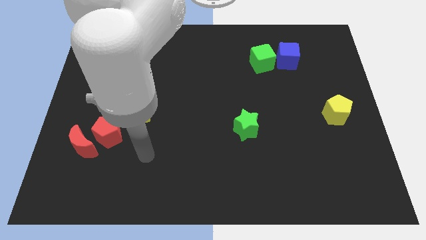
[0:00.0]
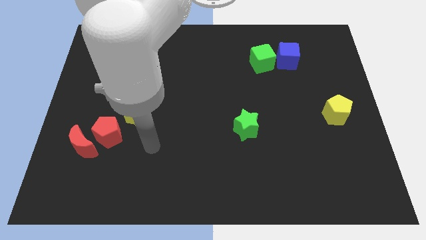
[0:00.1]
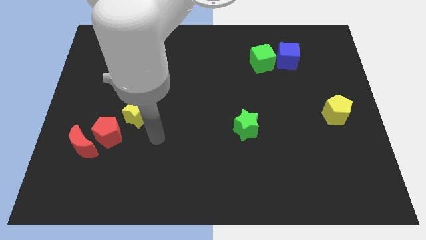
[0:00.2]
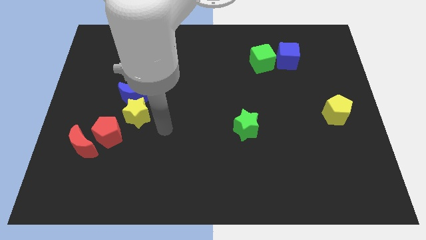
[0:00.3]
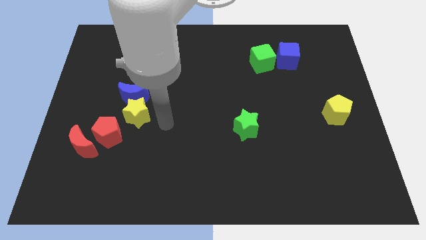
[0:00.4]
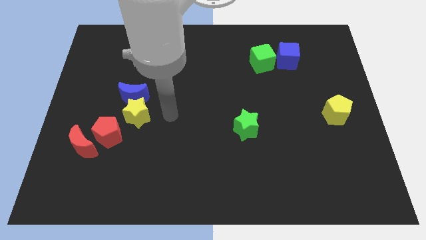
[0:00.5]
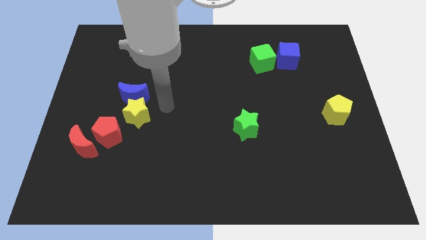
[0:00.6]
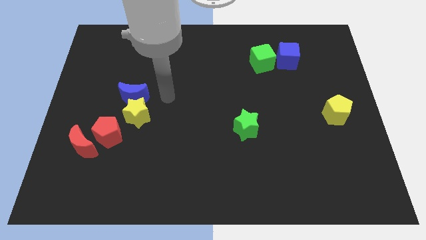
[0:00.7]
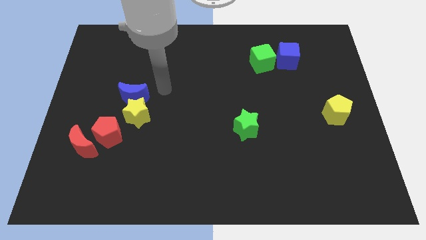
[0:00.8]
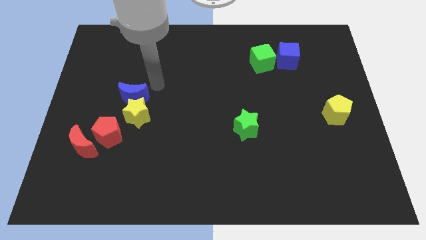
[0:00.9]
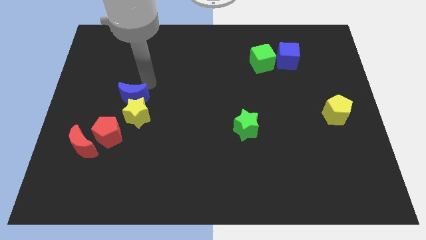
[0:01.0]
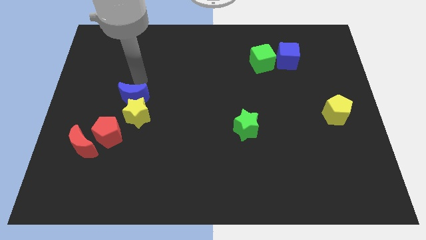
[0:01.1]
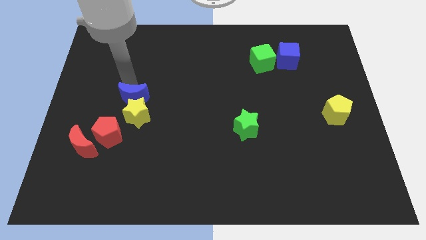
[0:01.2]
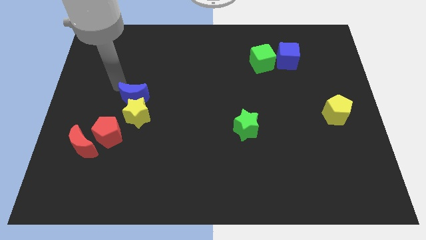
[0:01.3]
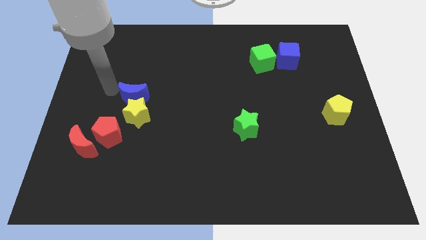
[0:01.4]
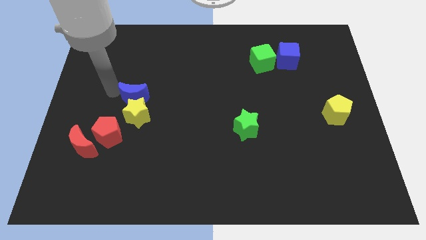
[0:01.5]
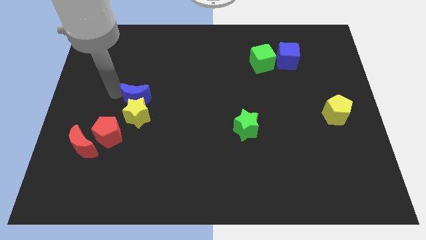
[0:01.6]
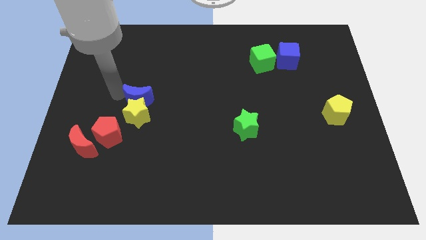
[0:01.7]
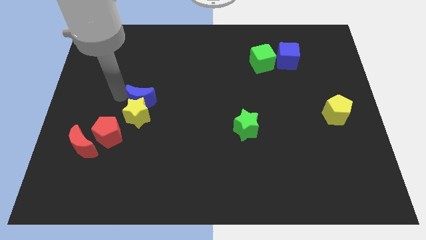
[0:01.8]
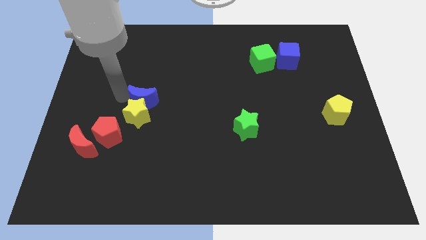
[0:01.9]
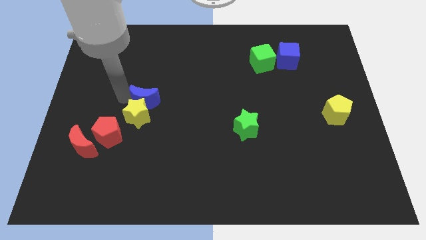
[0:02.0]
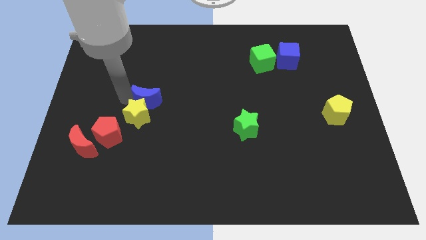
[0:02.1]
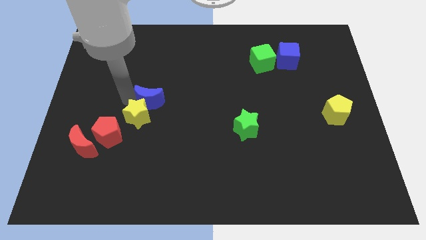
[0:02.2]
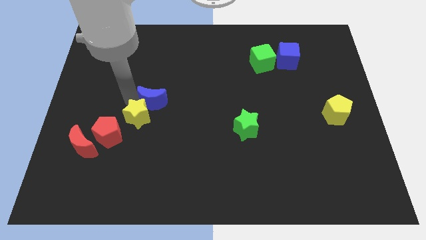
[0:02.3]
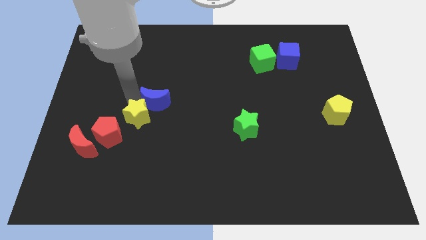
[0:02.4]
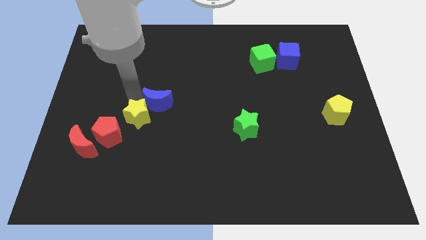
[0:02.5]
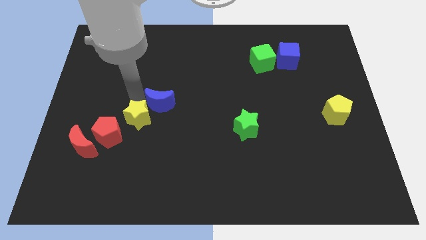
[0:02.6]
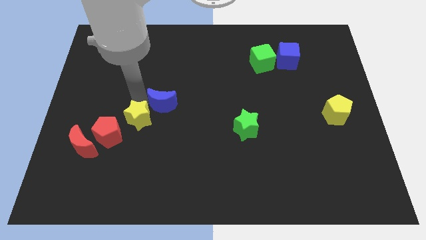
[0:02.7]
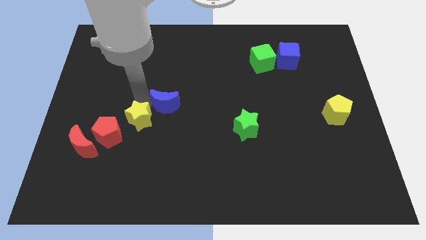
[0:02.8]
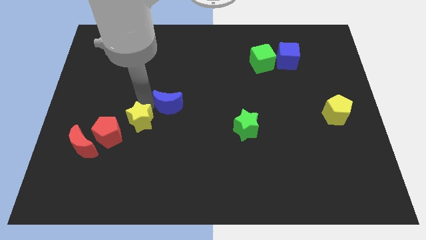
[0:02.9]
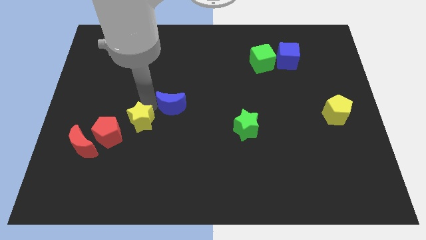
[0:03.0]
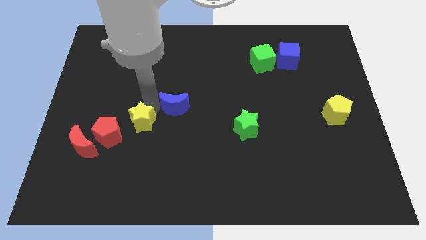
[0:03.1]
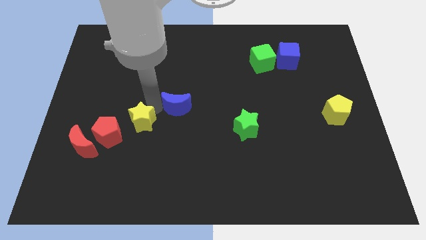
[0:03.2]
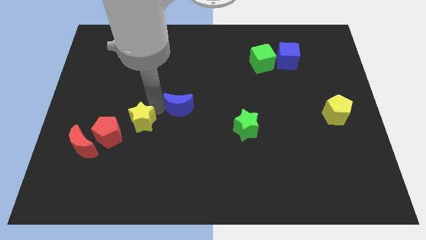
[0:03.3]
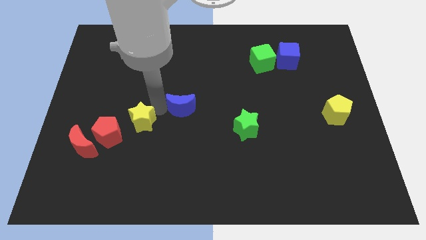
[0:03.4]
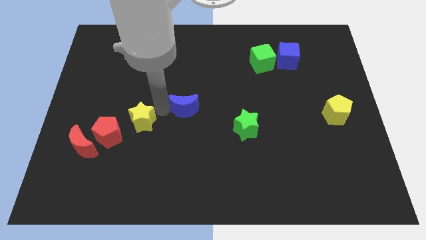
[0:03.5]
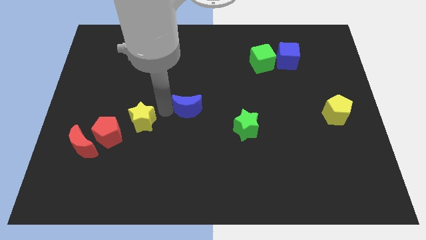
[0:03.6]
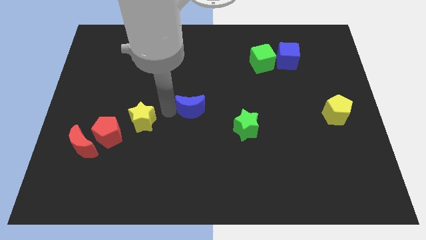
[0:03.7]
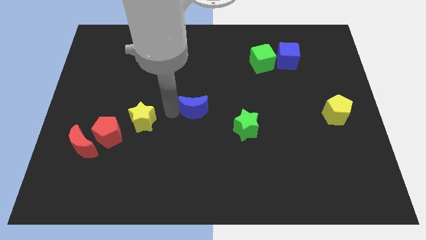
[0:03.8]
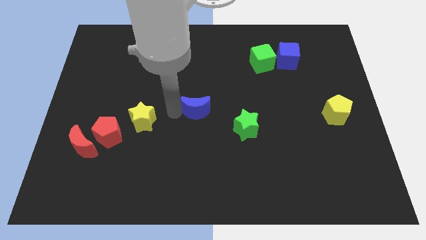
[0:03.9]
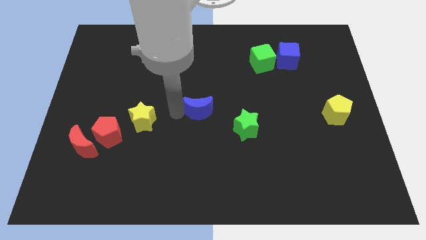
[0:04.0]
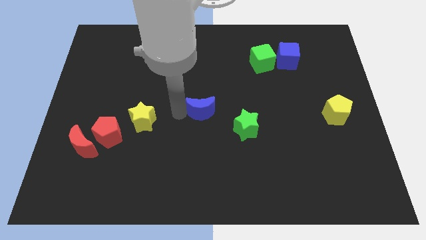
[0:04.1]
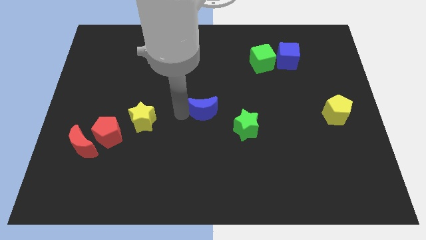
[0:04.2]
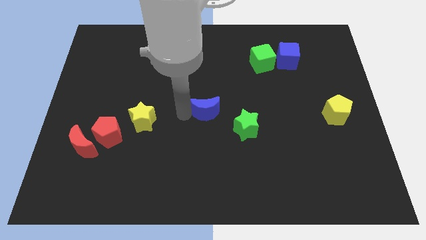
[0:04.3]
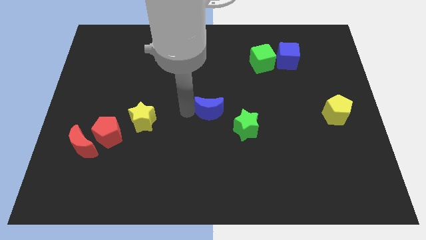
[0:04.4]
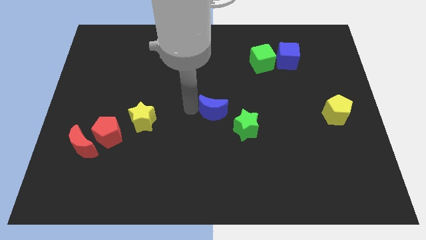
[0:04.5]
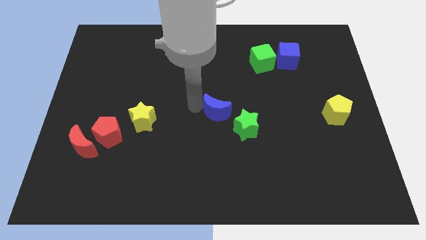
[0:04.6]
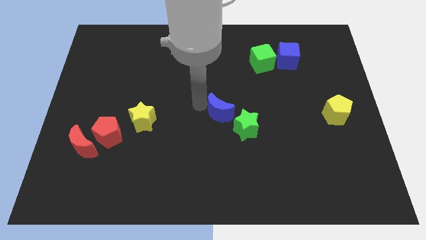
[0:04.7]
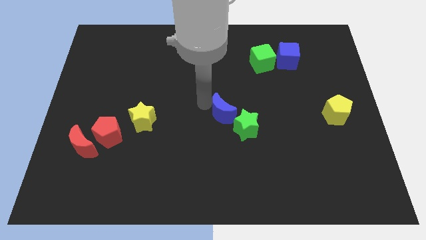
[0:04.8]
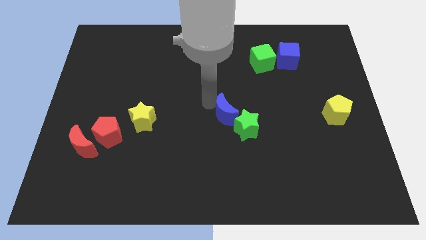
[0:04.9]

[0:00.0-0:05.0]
put the blue moon close to the green star

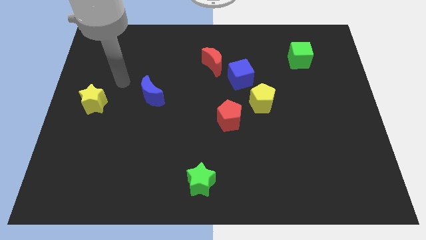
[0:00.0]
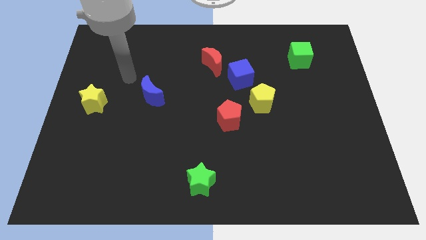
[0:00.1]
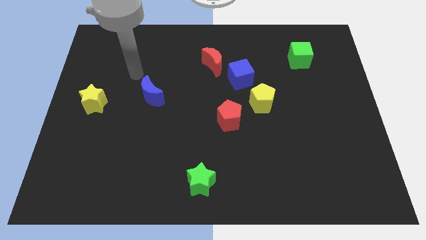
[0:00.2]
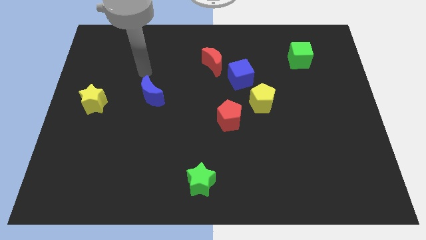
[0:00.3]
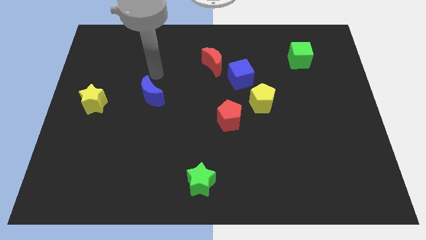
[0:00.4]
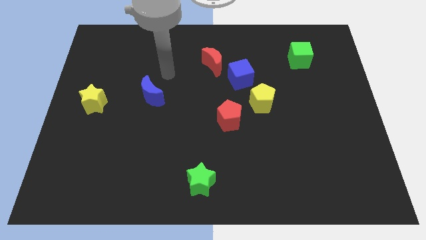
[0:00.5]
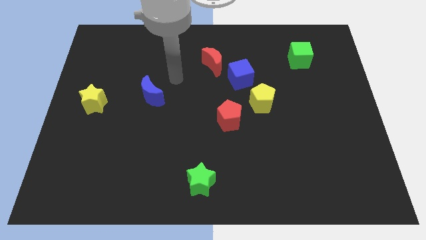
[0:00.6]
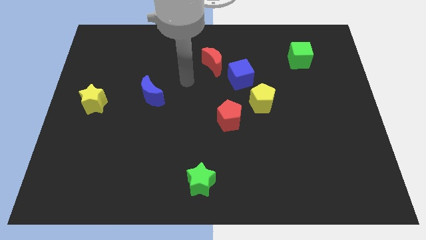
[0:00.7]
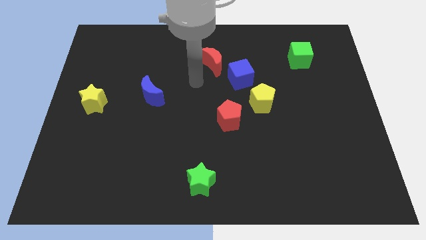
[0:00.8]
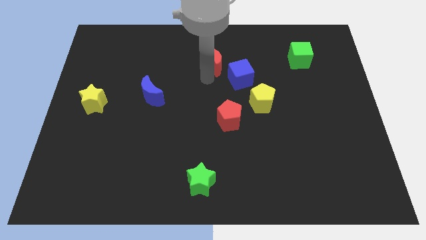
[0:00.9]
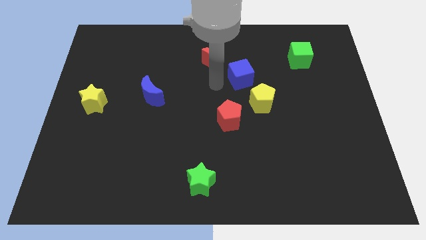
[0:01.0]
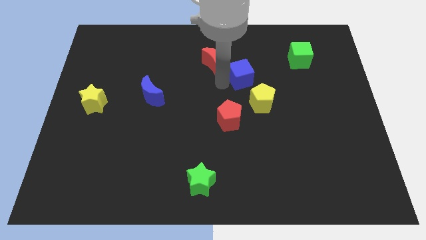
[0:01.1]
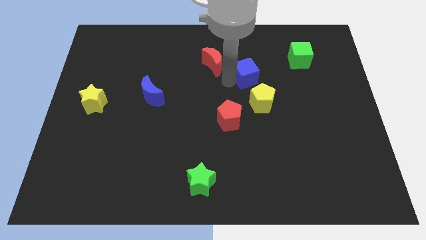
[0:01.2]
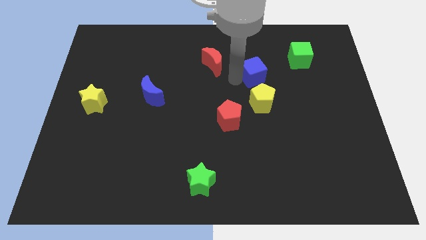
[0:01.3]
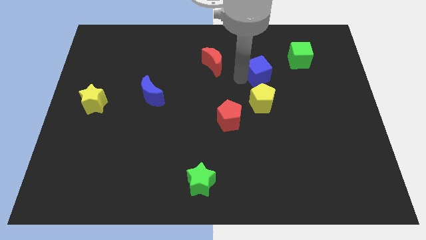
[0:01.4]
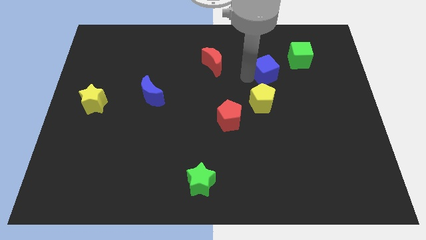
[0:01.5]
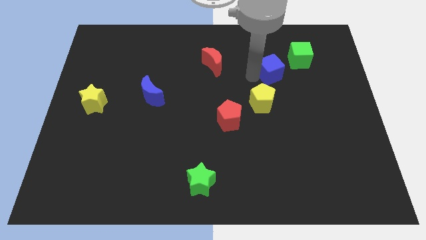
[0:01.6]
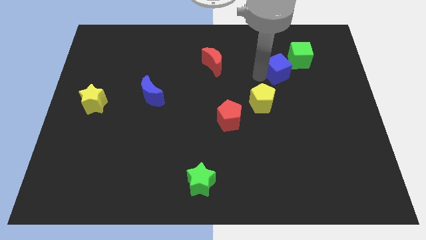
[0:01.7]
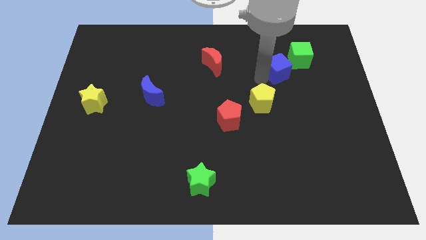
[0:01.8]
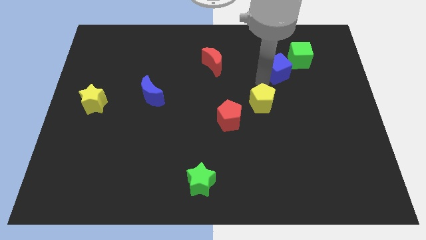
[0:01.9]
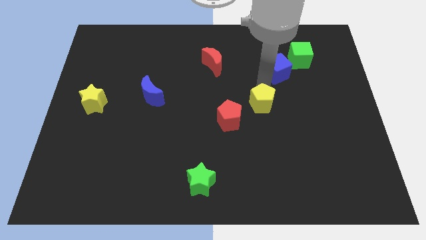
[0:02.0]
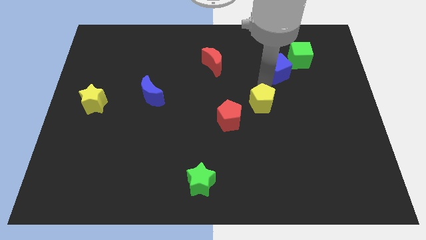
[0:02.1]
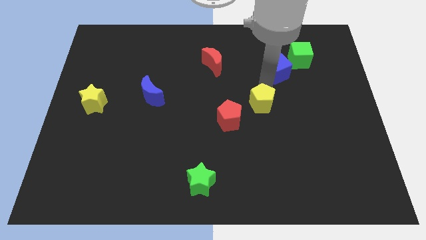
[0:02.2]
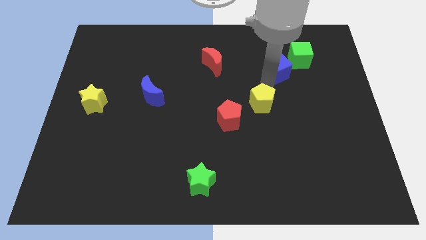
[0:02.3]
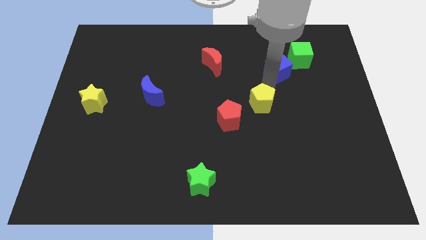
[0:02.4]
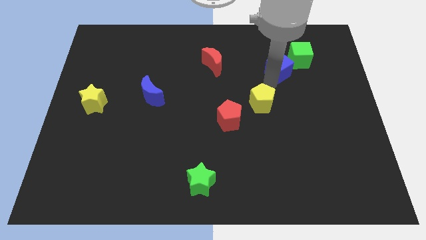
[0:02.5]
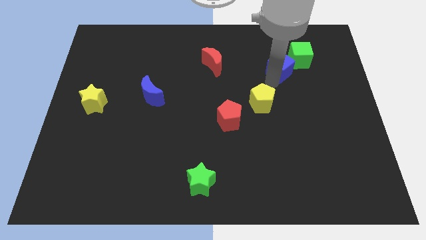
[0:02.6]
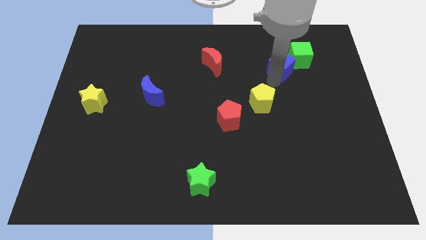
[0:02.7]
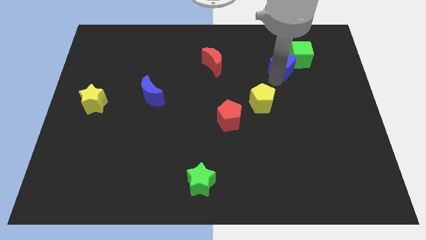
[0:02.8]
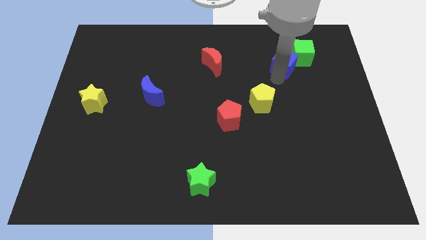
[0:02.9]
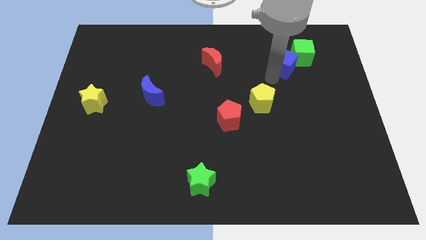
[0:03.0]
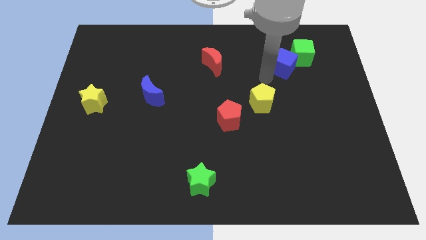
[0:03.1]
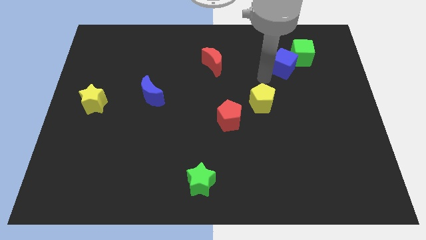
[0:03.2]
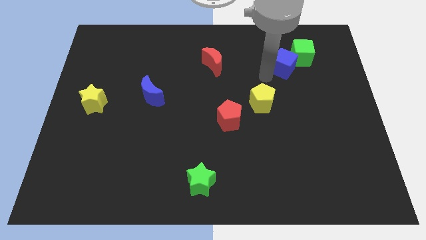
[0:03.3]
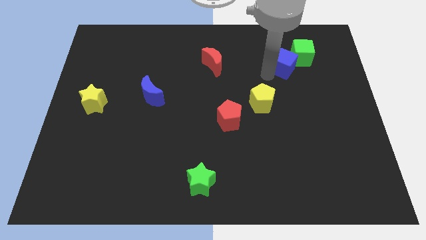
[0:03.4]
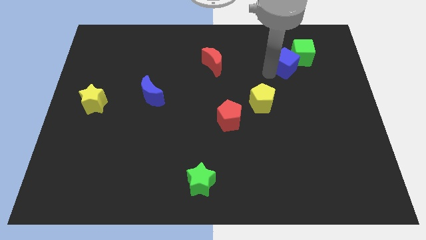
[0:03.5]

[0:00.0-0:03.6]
slide the blue cube towards the green cube

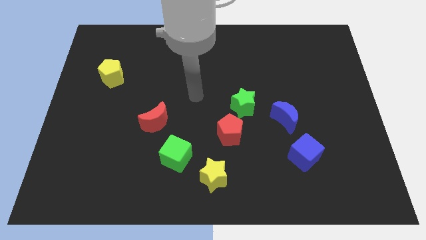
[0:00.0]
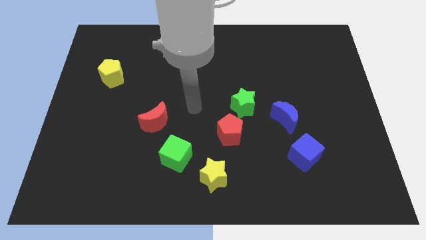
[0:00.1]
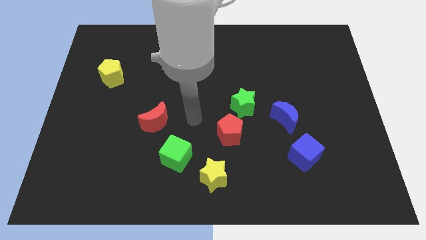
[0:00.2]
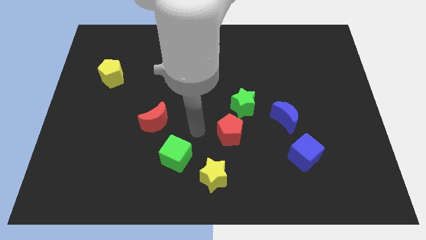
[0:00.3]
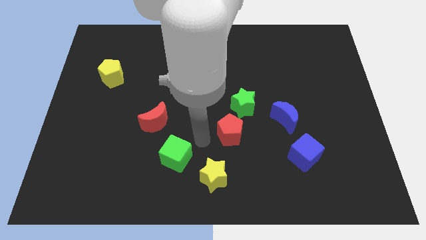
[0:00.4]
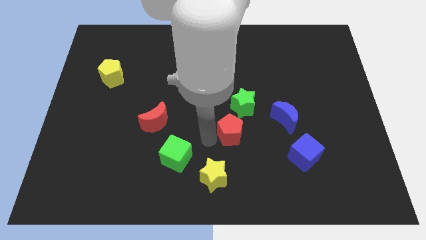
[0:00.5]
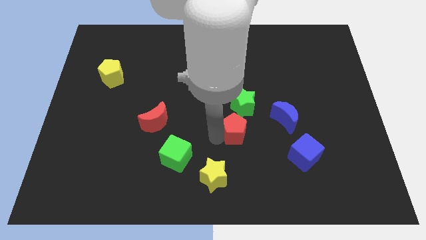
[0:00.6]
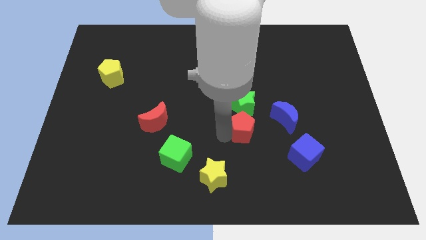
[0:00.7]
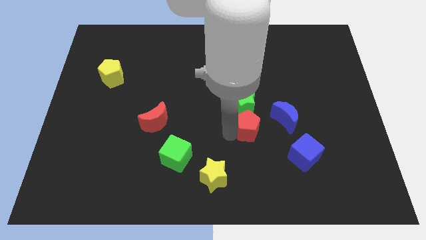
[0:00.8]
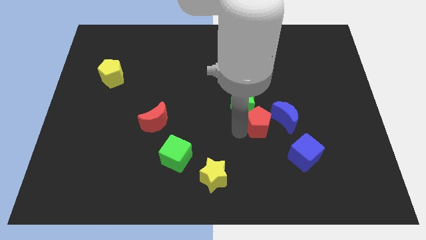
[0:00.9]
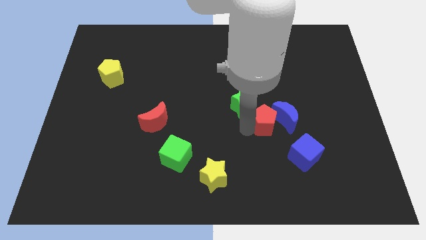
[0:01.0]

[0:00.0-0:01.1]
push the red pentagon to the blue moon
